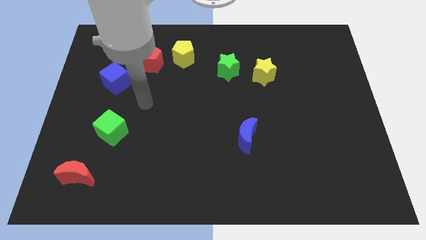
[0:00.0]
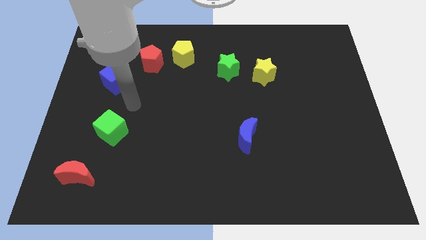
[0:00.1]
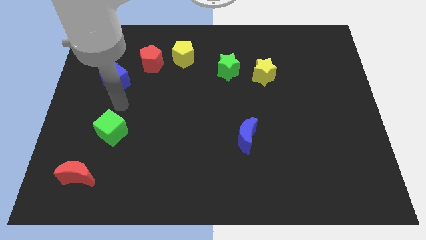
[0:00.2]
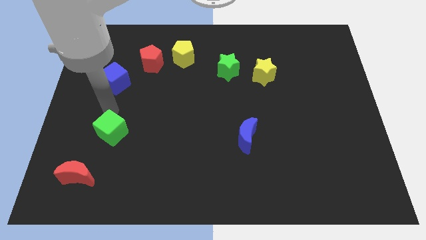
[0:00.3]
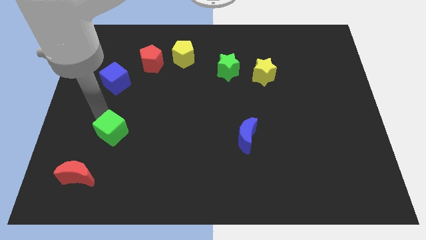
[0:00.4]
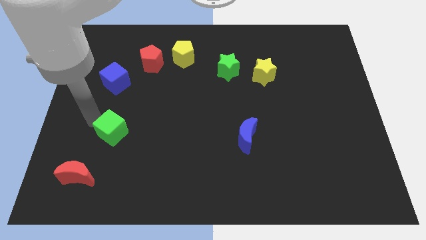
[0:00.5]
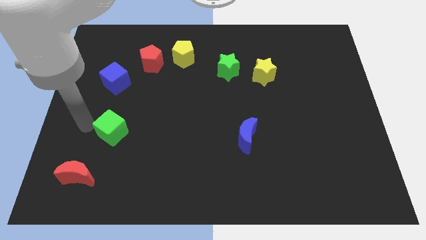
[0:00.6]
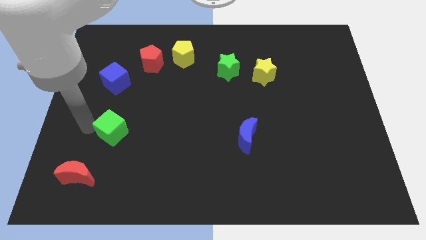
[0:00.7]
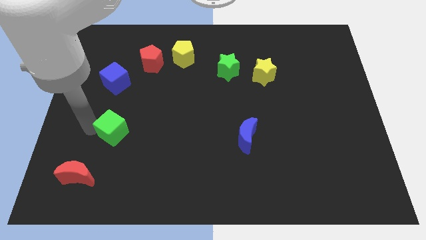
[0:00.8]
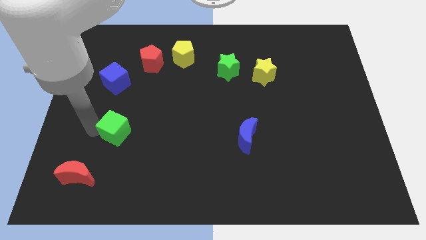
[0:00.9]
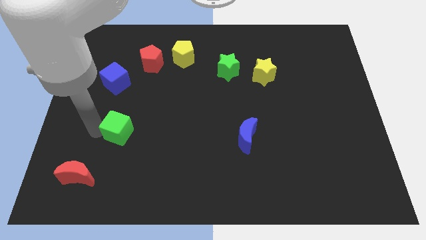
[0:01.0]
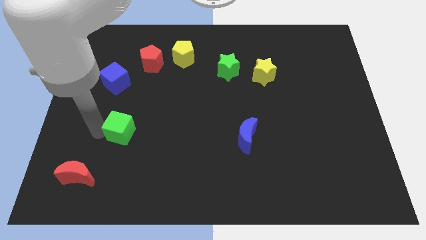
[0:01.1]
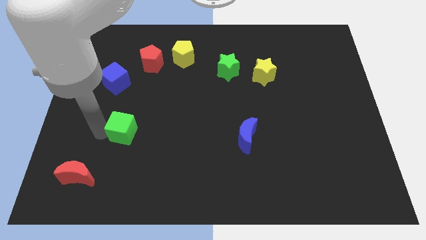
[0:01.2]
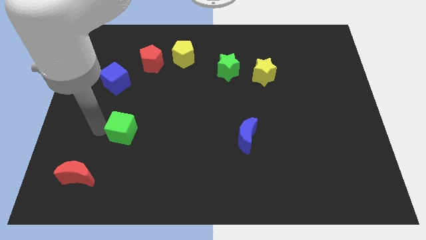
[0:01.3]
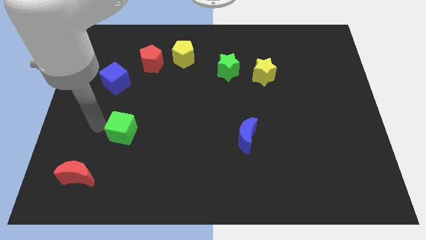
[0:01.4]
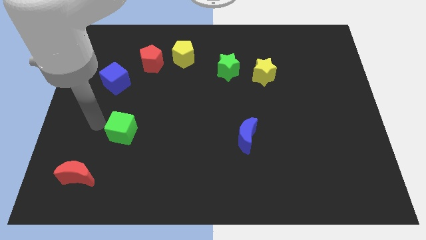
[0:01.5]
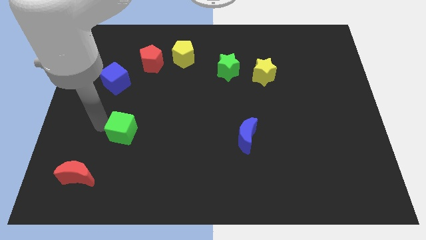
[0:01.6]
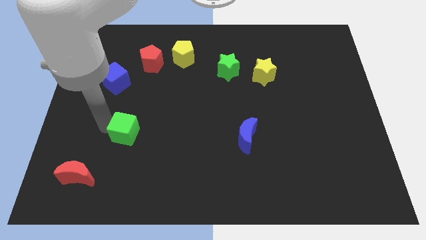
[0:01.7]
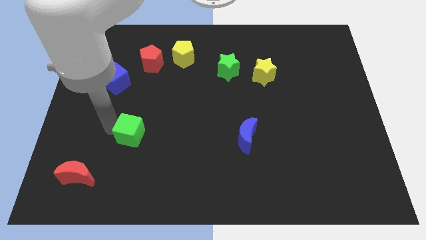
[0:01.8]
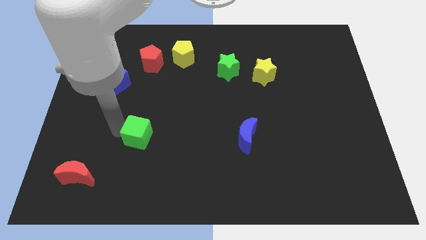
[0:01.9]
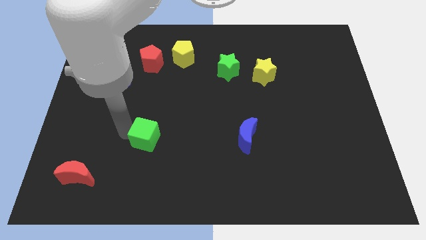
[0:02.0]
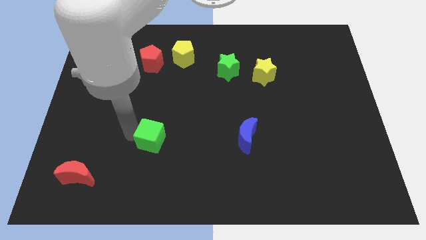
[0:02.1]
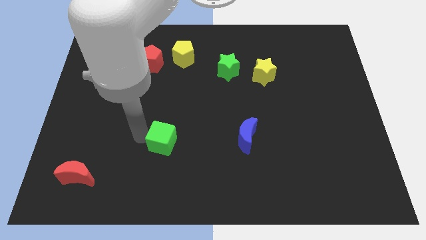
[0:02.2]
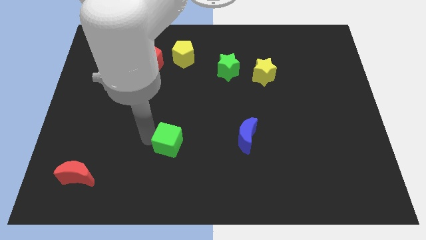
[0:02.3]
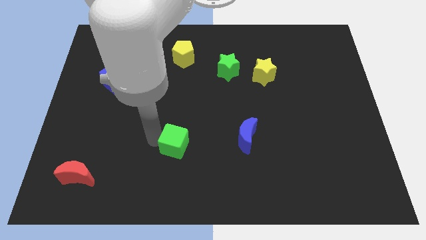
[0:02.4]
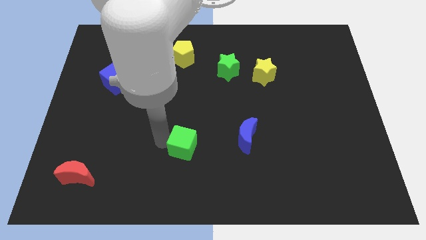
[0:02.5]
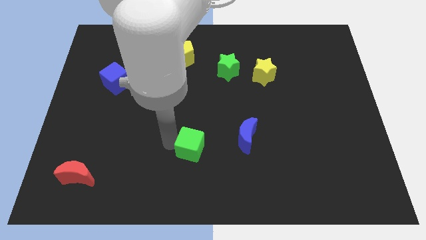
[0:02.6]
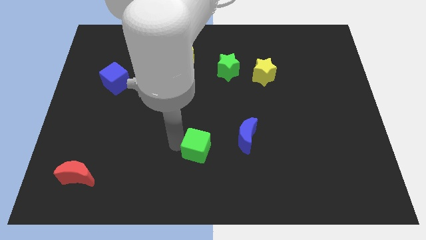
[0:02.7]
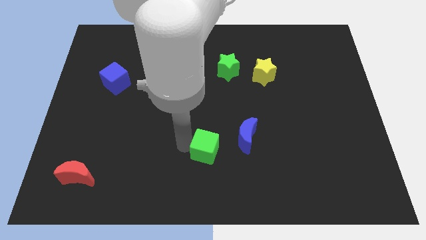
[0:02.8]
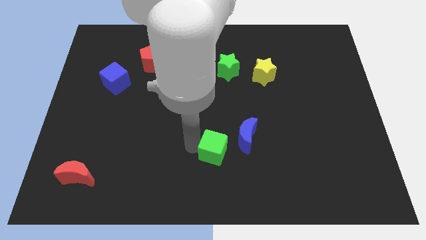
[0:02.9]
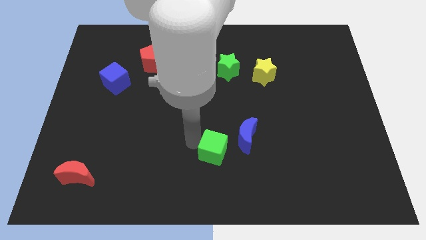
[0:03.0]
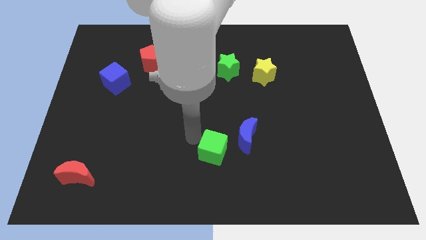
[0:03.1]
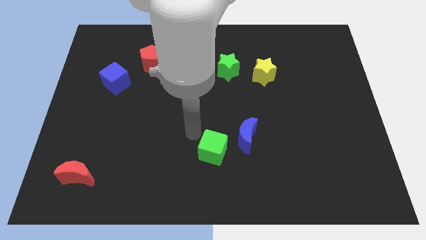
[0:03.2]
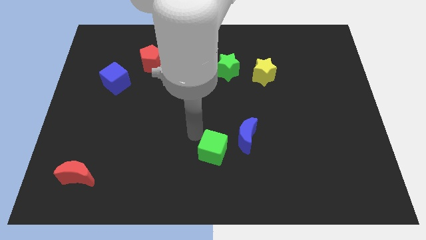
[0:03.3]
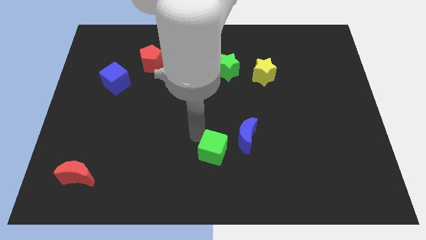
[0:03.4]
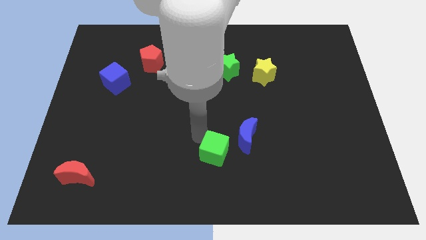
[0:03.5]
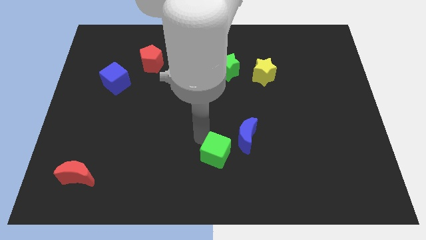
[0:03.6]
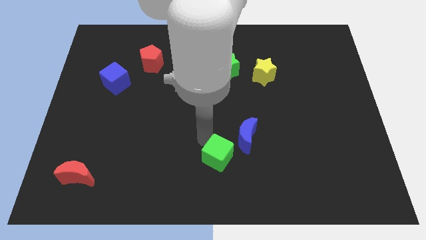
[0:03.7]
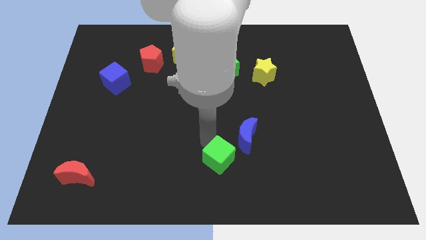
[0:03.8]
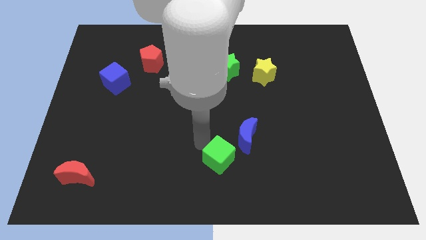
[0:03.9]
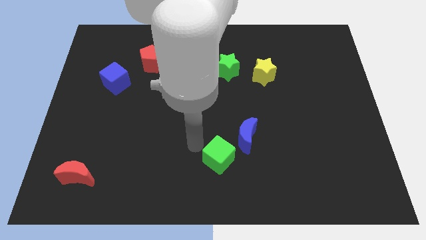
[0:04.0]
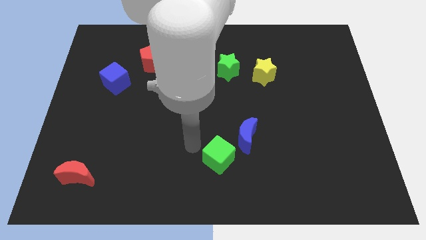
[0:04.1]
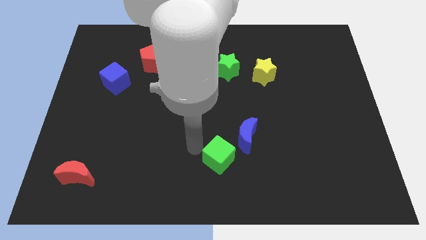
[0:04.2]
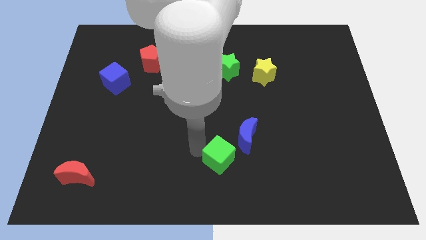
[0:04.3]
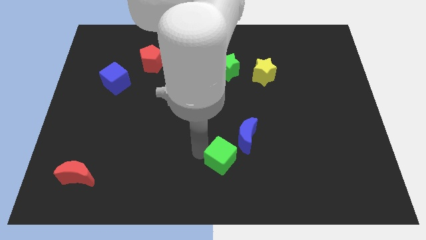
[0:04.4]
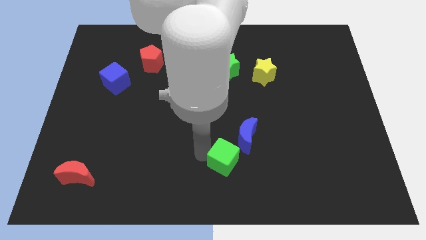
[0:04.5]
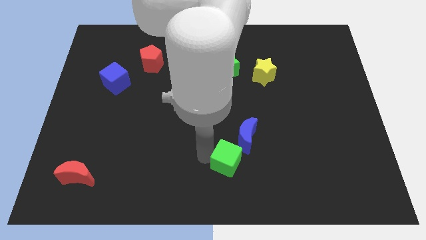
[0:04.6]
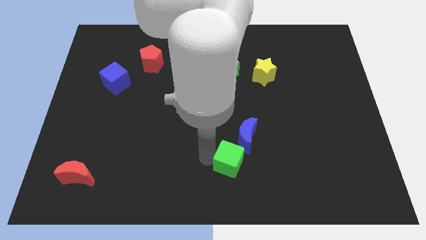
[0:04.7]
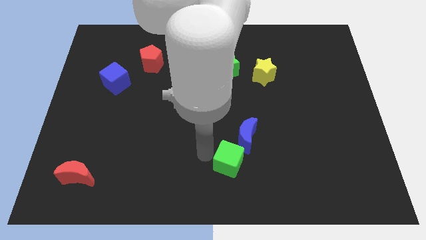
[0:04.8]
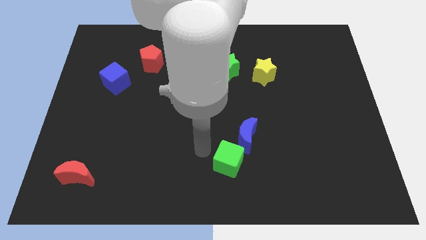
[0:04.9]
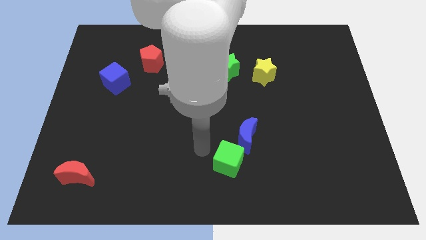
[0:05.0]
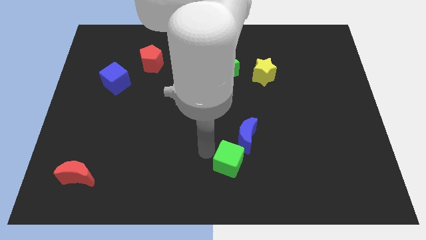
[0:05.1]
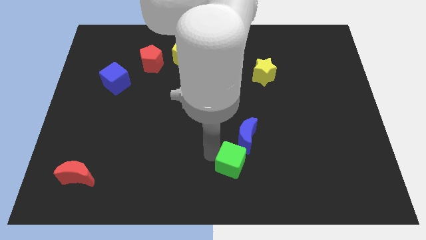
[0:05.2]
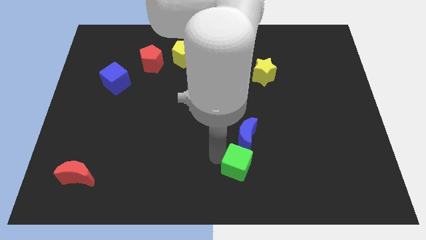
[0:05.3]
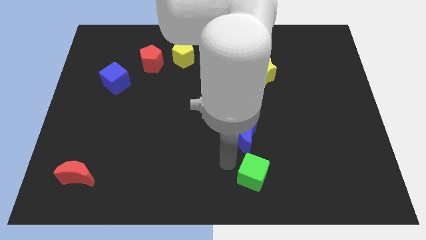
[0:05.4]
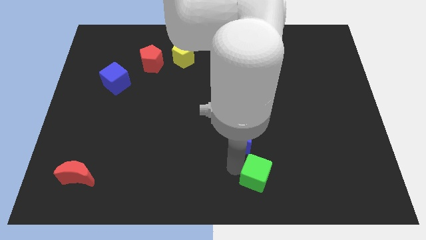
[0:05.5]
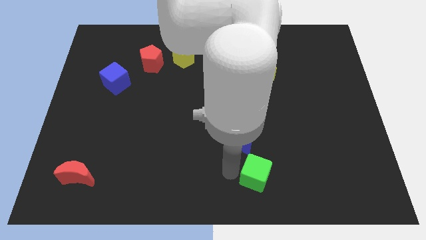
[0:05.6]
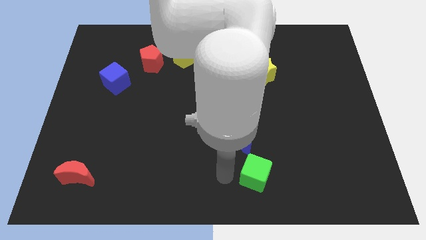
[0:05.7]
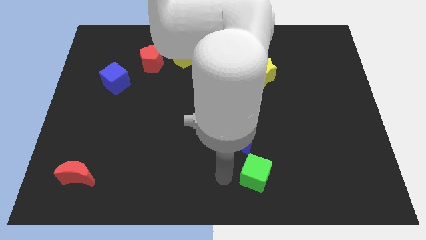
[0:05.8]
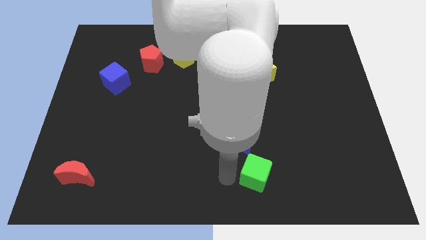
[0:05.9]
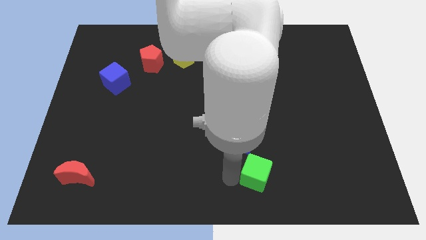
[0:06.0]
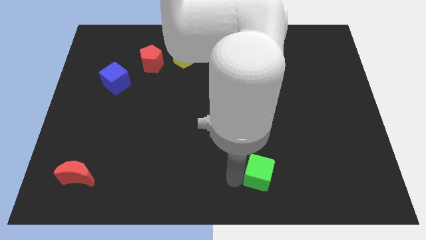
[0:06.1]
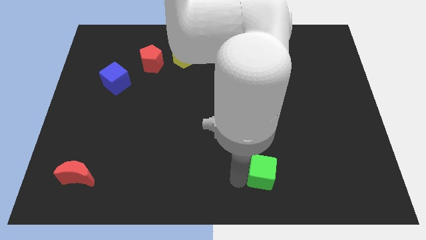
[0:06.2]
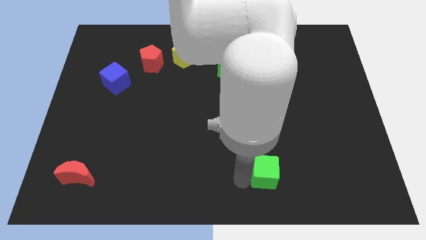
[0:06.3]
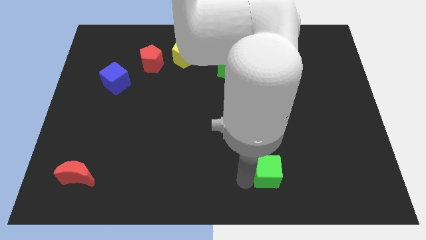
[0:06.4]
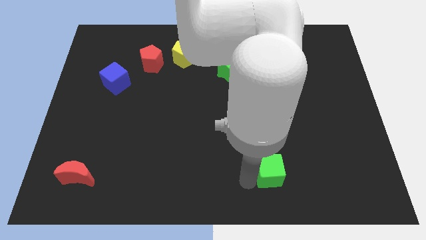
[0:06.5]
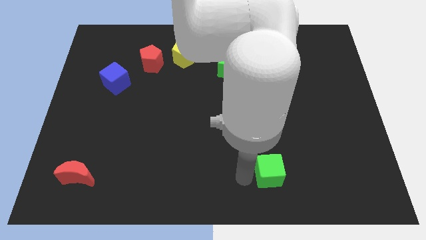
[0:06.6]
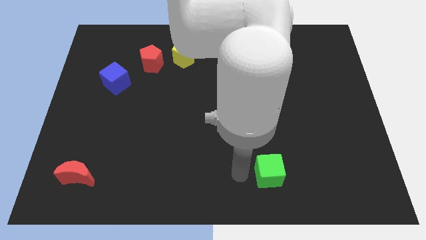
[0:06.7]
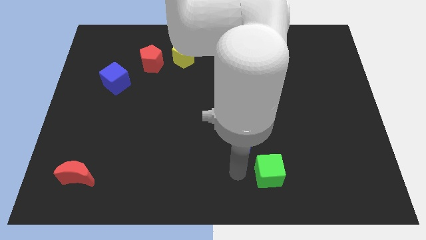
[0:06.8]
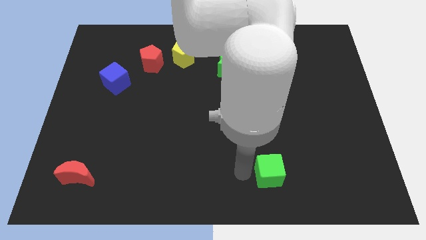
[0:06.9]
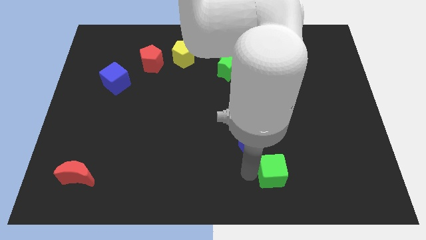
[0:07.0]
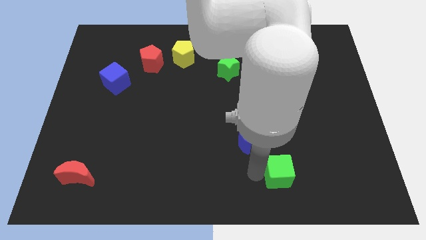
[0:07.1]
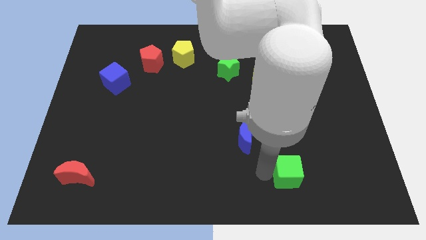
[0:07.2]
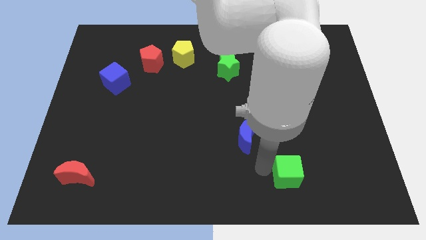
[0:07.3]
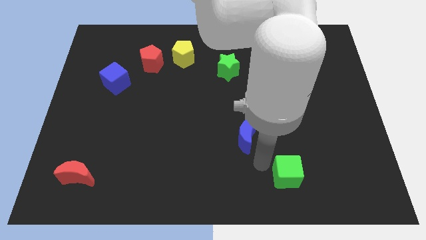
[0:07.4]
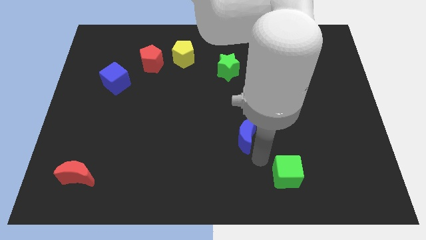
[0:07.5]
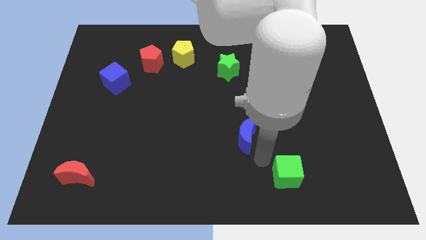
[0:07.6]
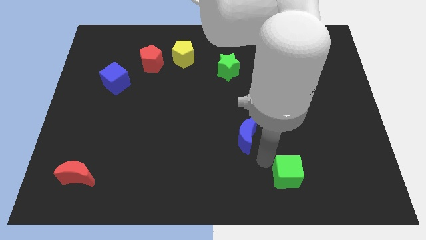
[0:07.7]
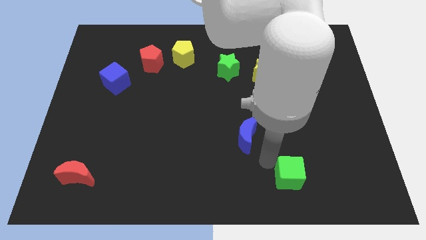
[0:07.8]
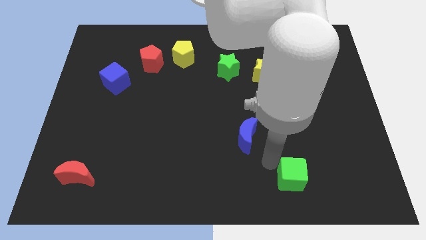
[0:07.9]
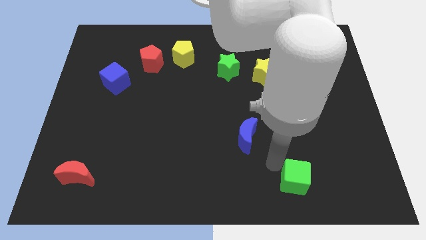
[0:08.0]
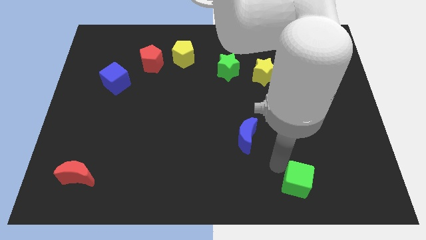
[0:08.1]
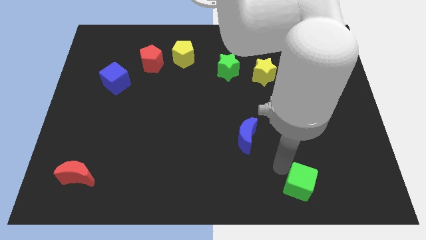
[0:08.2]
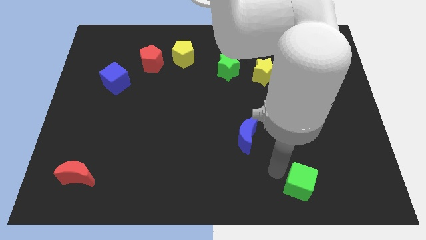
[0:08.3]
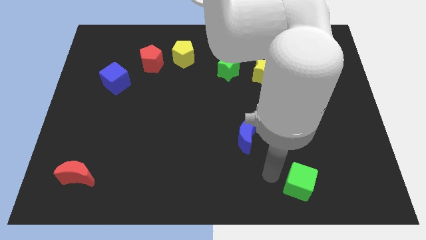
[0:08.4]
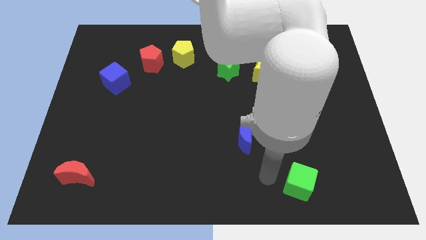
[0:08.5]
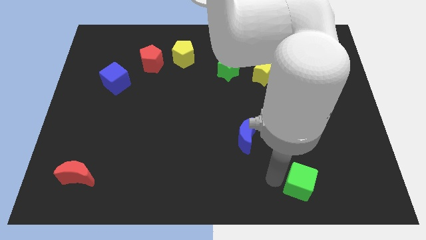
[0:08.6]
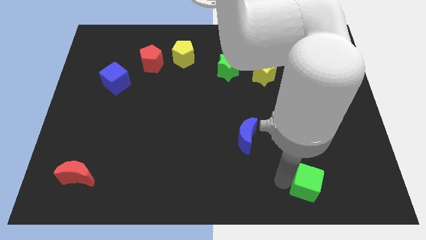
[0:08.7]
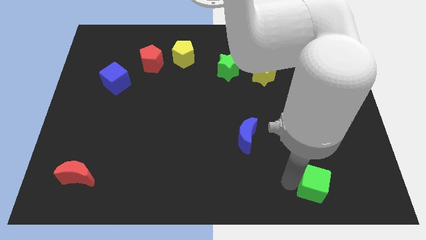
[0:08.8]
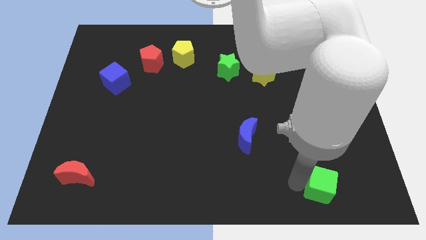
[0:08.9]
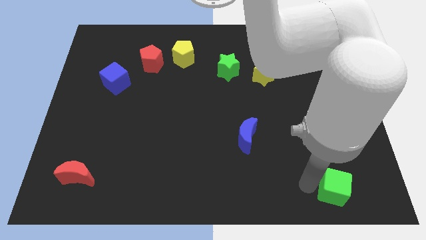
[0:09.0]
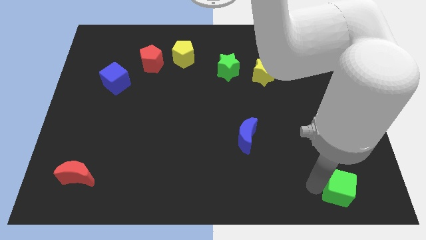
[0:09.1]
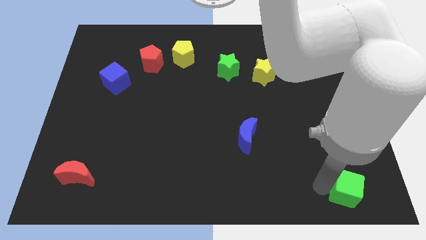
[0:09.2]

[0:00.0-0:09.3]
put the green cube to the lower right corner
